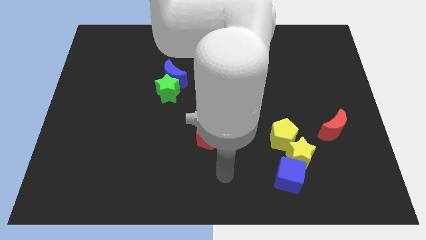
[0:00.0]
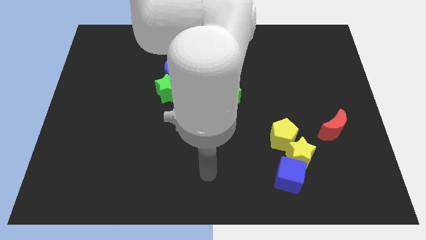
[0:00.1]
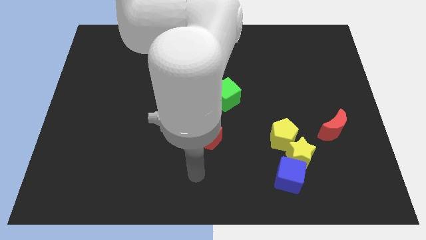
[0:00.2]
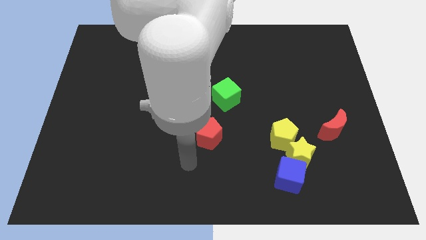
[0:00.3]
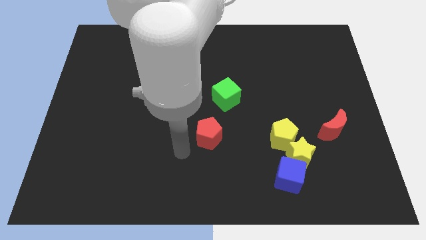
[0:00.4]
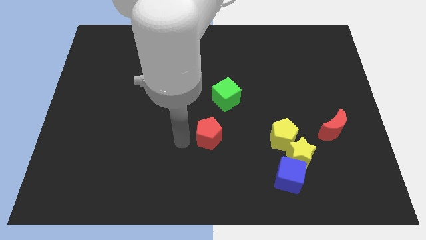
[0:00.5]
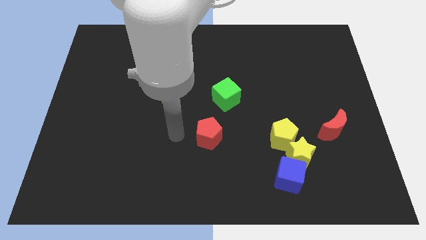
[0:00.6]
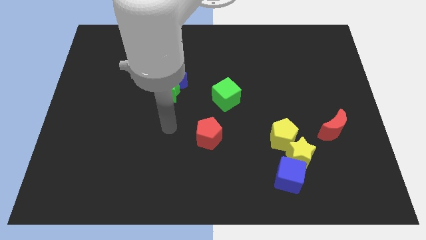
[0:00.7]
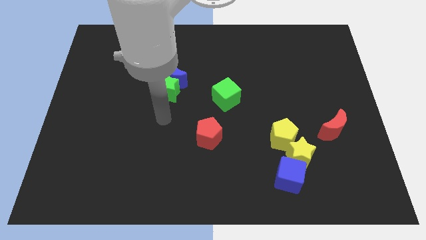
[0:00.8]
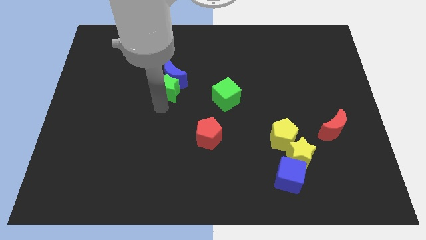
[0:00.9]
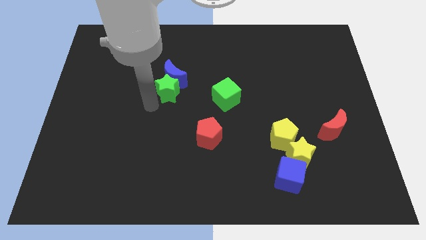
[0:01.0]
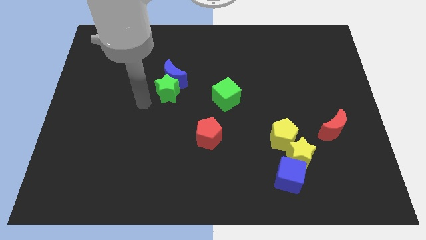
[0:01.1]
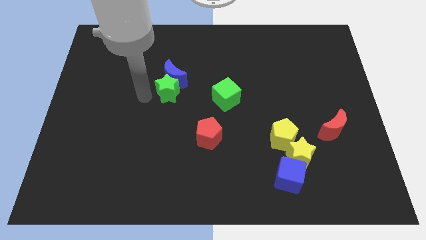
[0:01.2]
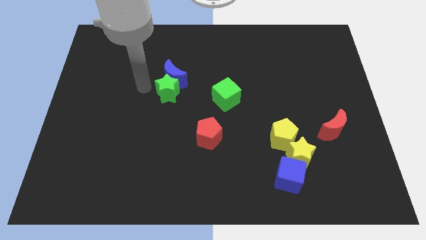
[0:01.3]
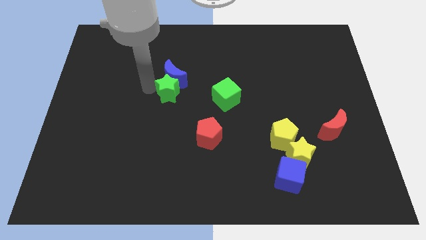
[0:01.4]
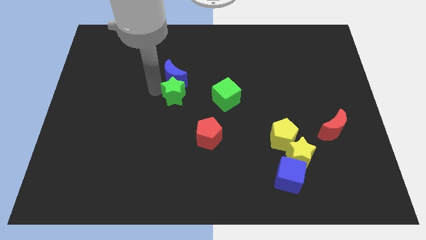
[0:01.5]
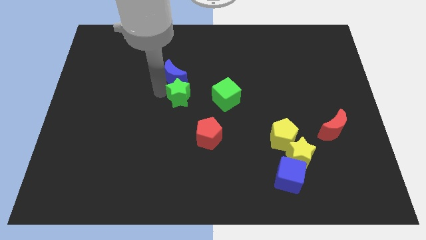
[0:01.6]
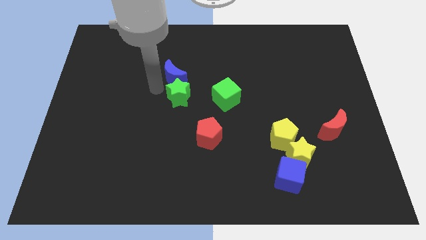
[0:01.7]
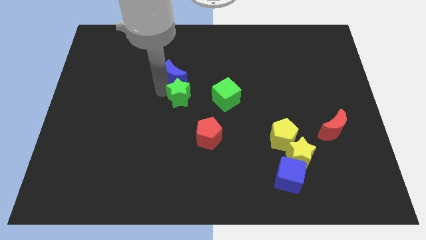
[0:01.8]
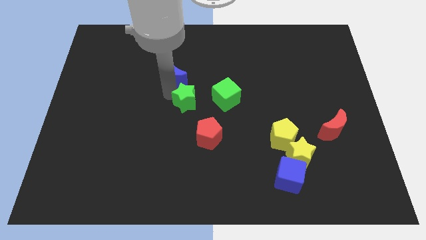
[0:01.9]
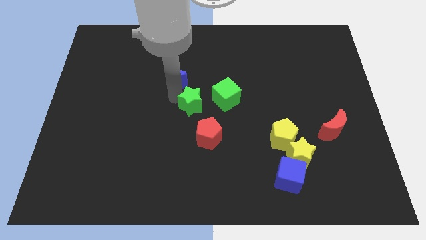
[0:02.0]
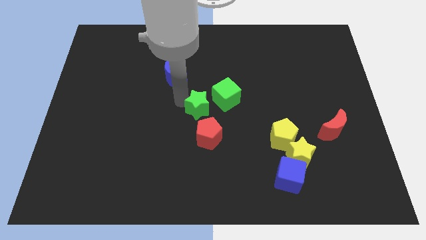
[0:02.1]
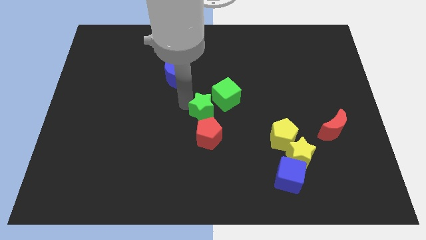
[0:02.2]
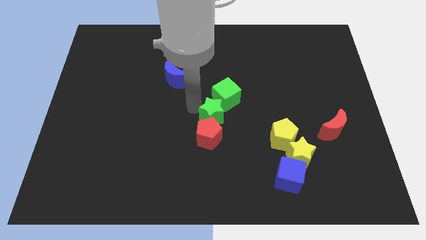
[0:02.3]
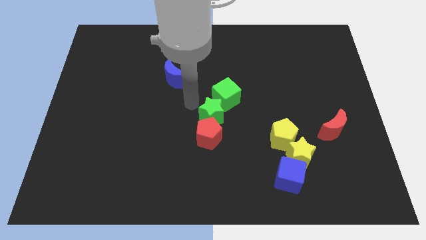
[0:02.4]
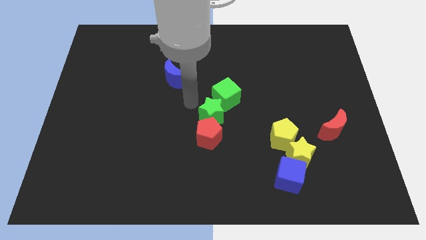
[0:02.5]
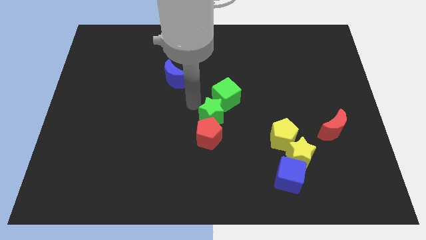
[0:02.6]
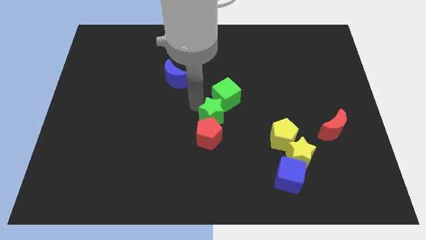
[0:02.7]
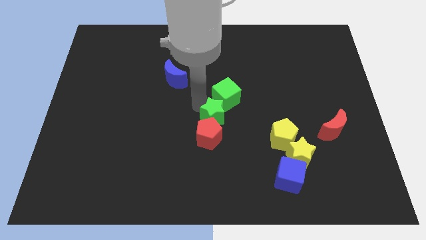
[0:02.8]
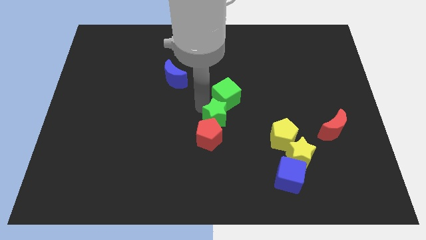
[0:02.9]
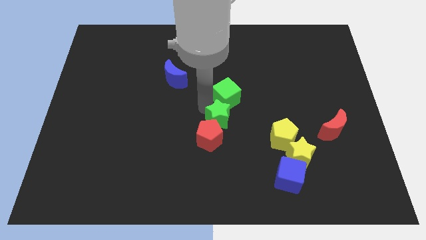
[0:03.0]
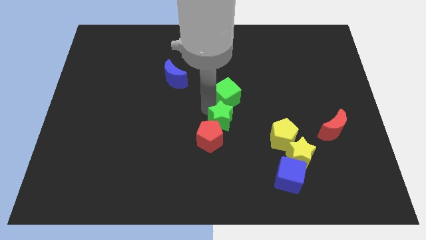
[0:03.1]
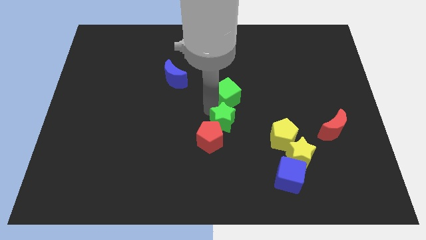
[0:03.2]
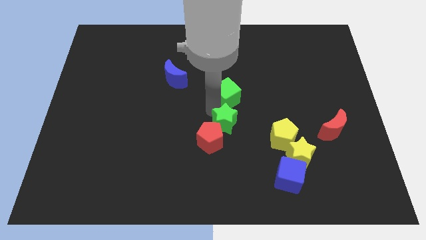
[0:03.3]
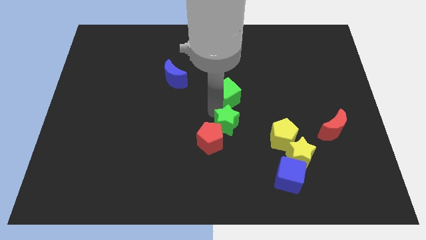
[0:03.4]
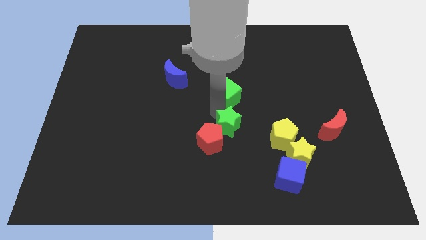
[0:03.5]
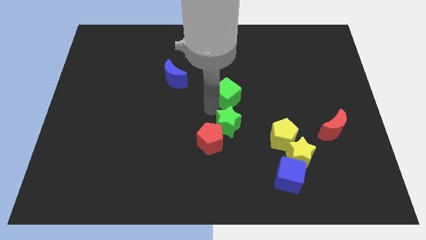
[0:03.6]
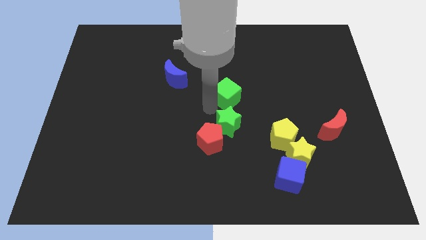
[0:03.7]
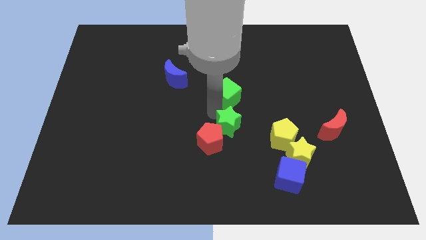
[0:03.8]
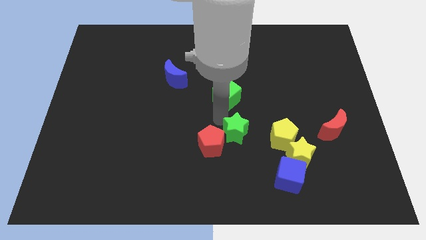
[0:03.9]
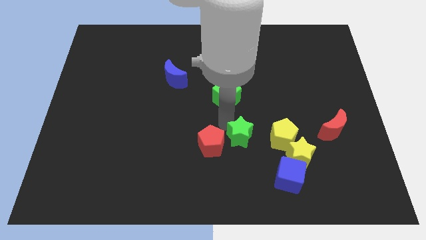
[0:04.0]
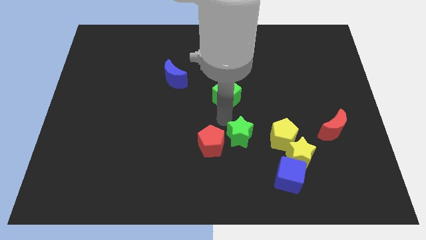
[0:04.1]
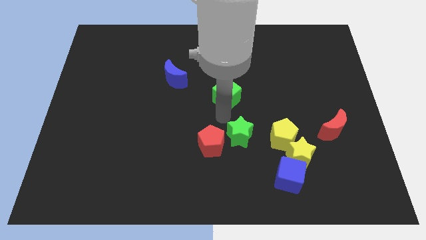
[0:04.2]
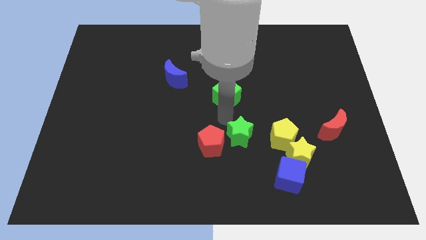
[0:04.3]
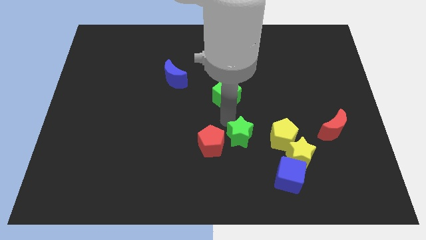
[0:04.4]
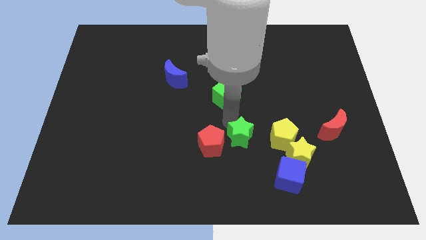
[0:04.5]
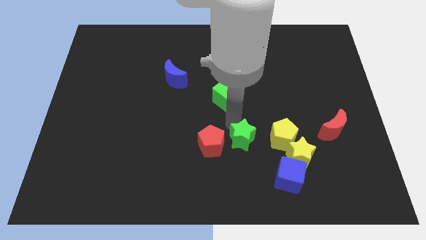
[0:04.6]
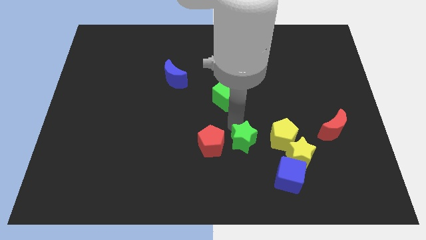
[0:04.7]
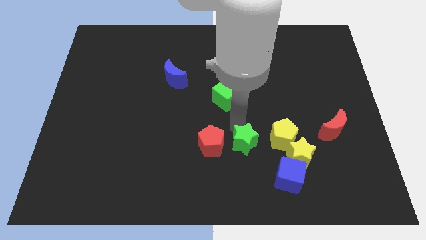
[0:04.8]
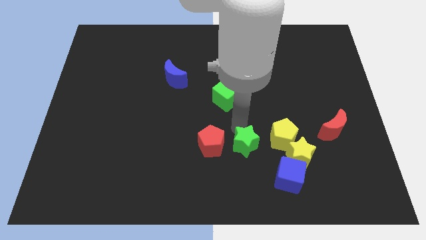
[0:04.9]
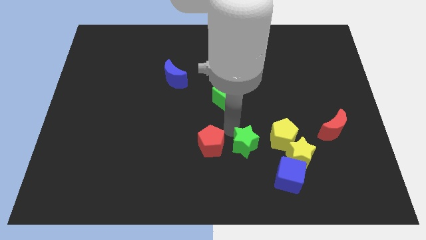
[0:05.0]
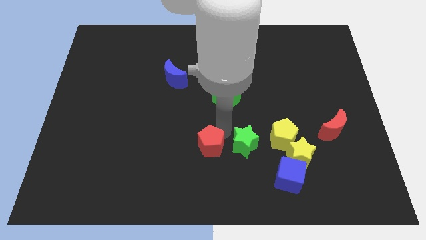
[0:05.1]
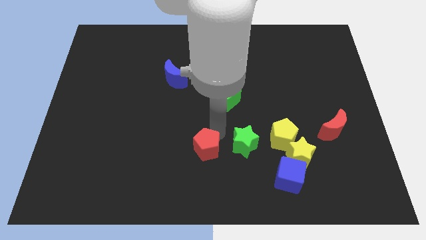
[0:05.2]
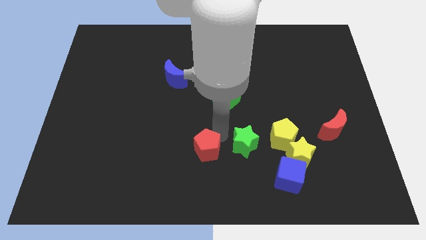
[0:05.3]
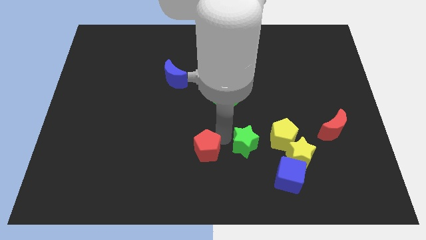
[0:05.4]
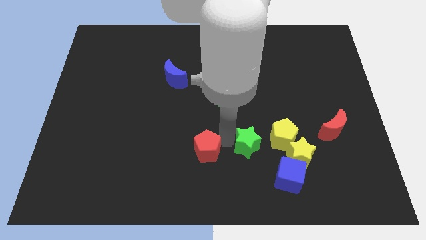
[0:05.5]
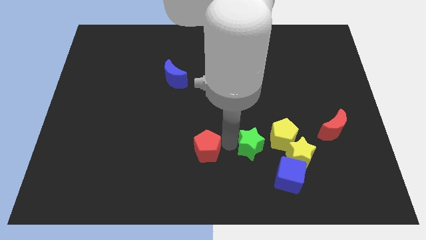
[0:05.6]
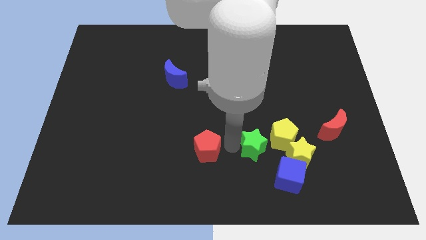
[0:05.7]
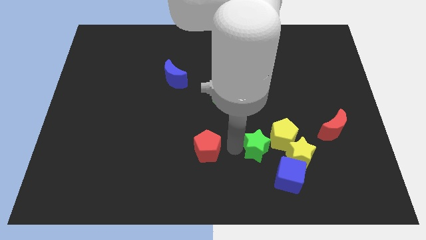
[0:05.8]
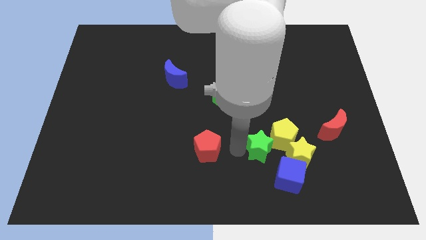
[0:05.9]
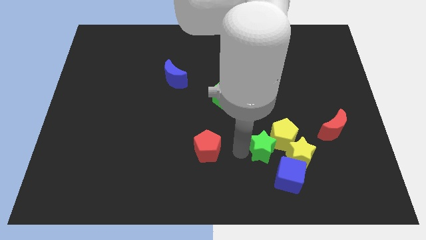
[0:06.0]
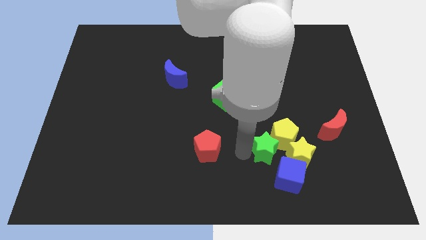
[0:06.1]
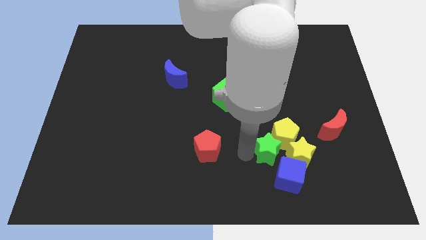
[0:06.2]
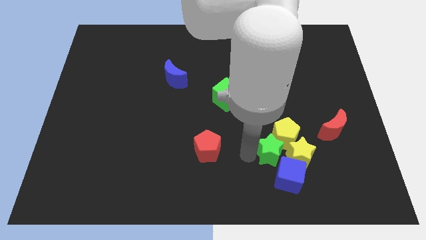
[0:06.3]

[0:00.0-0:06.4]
push the green star close to the yellow star
